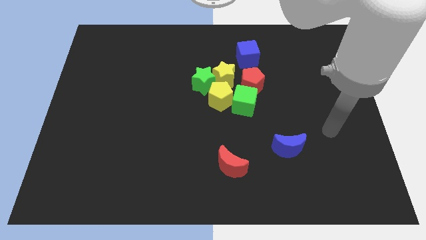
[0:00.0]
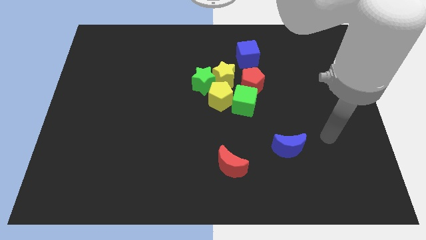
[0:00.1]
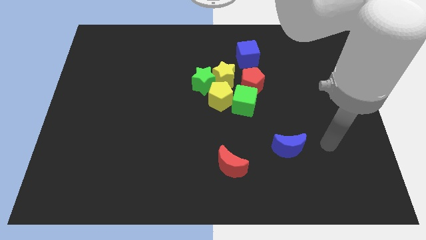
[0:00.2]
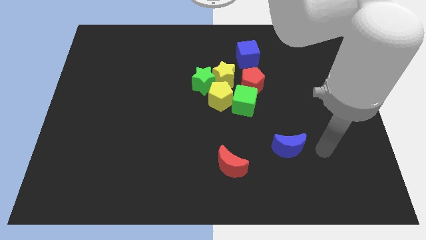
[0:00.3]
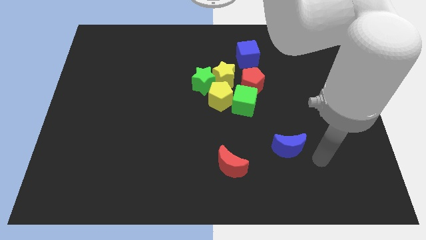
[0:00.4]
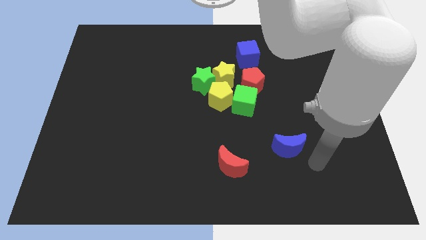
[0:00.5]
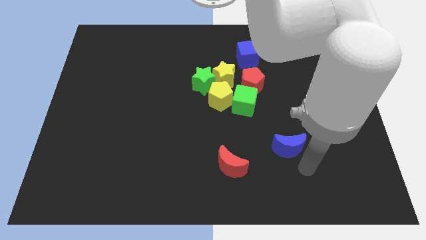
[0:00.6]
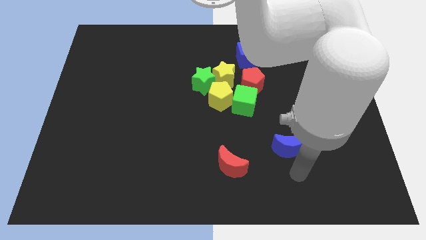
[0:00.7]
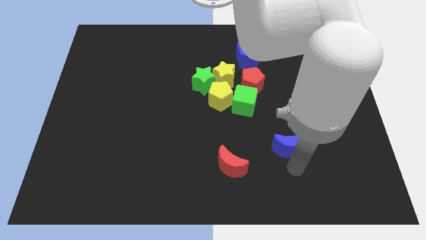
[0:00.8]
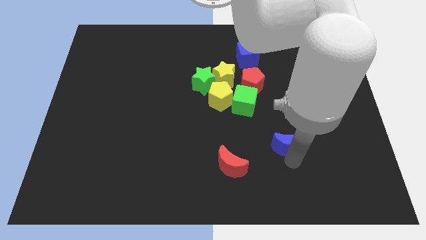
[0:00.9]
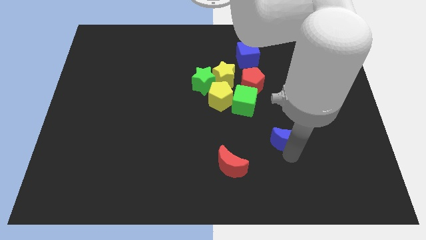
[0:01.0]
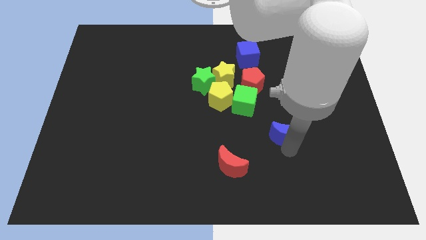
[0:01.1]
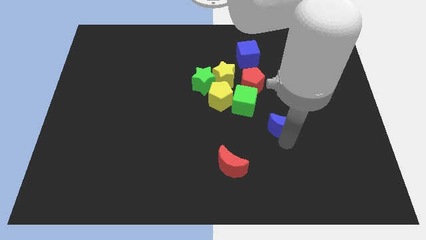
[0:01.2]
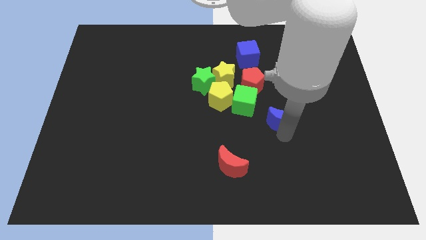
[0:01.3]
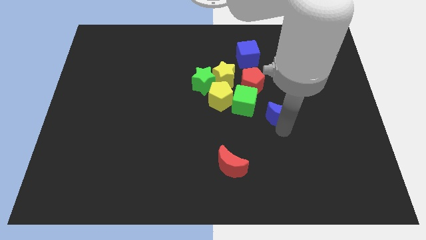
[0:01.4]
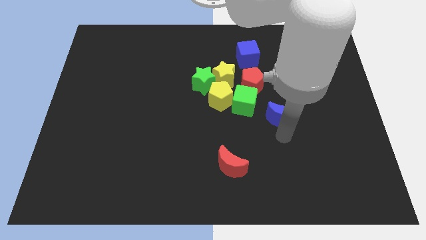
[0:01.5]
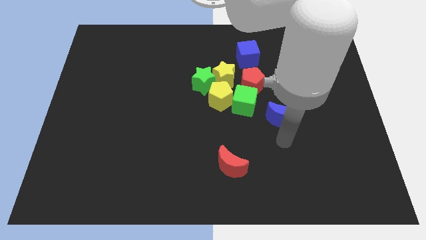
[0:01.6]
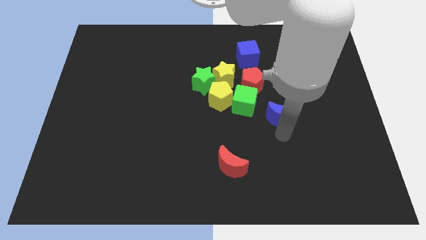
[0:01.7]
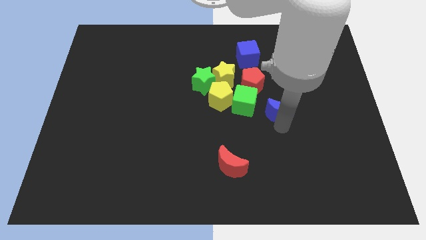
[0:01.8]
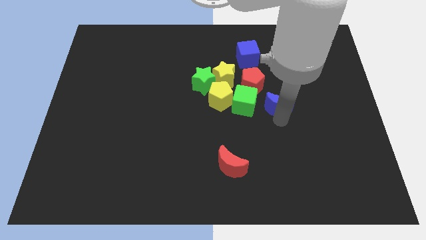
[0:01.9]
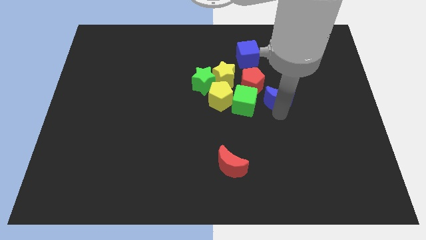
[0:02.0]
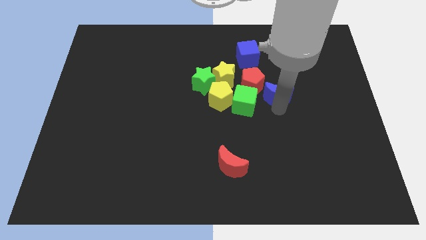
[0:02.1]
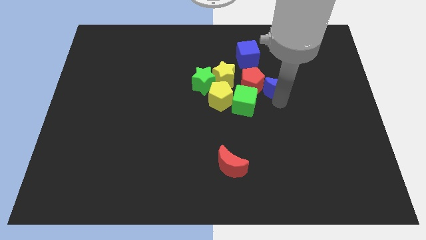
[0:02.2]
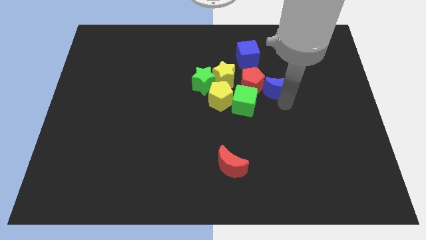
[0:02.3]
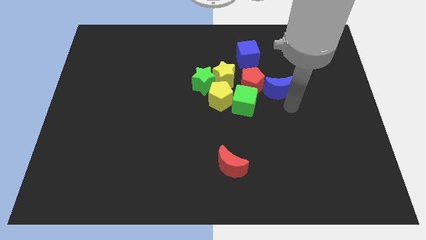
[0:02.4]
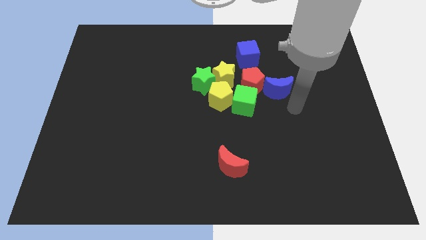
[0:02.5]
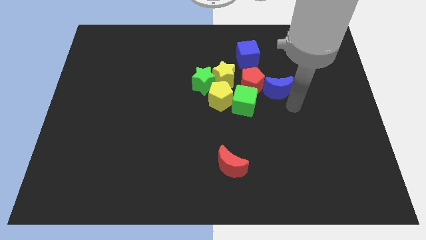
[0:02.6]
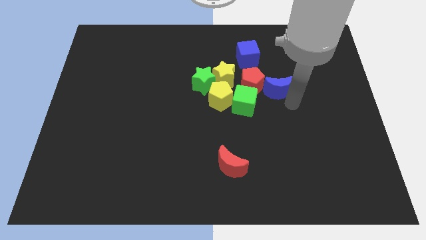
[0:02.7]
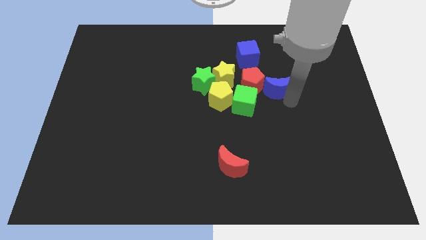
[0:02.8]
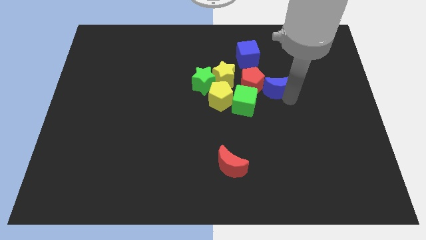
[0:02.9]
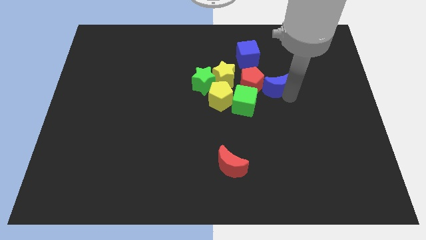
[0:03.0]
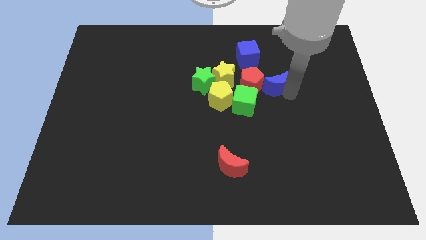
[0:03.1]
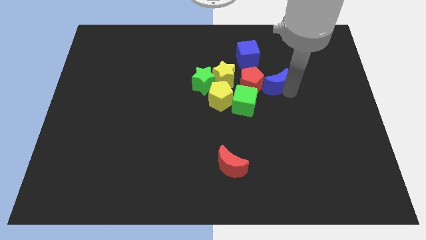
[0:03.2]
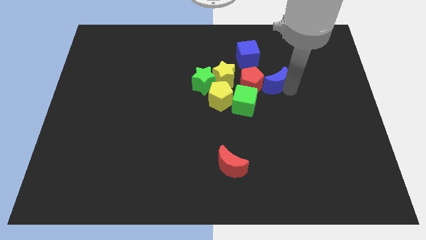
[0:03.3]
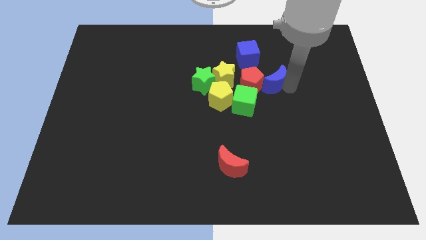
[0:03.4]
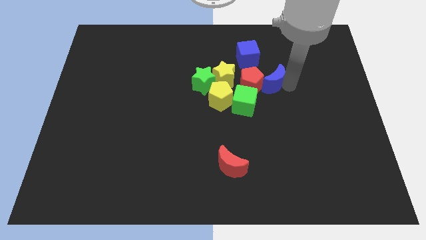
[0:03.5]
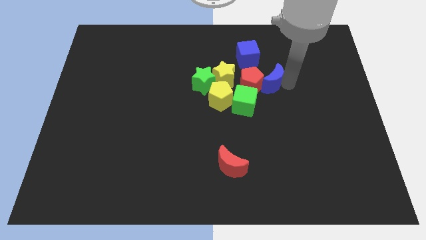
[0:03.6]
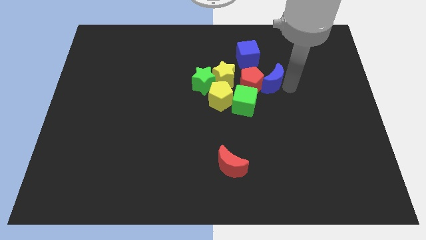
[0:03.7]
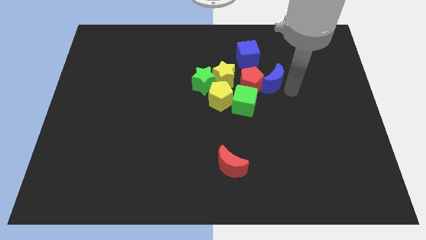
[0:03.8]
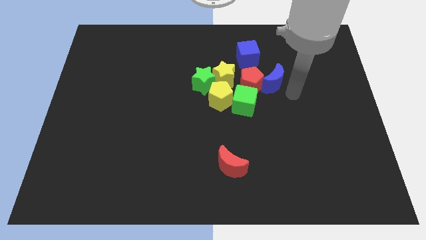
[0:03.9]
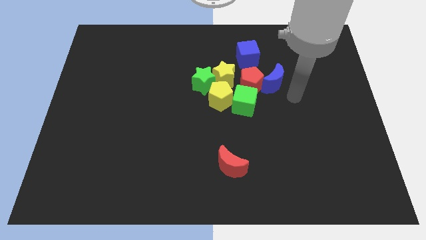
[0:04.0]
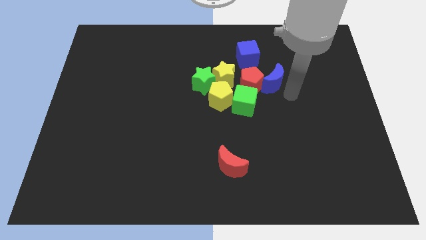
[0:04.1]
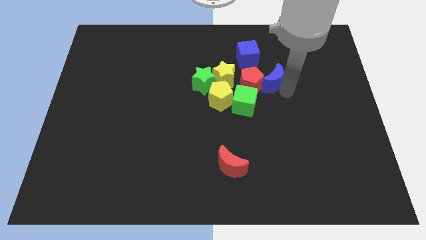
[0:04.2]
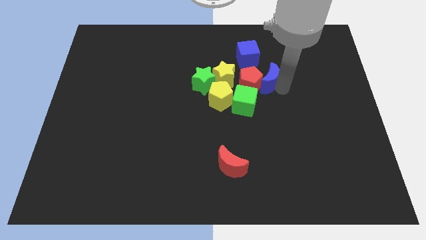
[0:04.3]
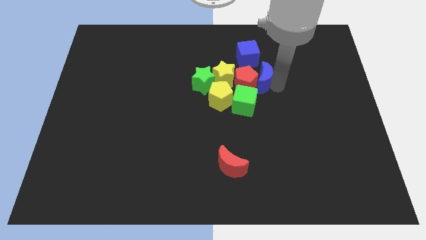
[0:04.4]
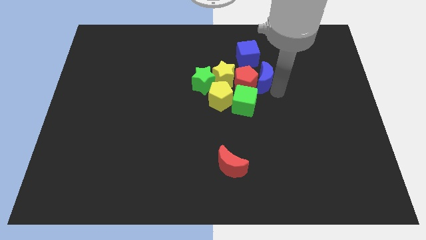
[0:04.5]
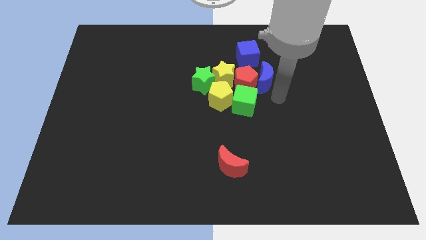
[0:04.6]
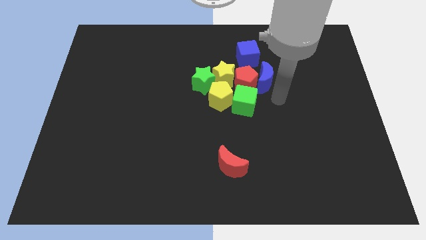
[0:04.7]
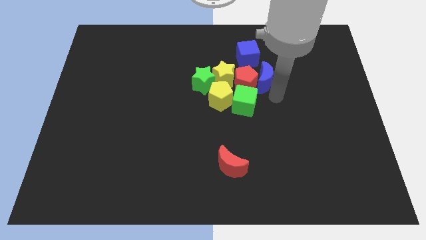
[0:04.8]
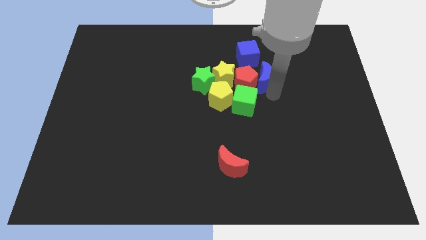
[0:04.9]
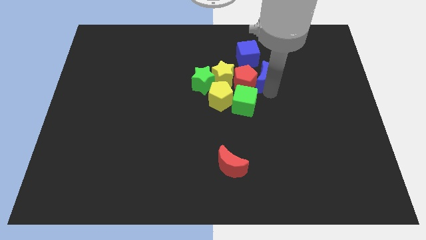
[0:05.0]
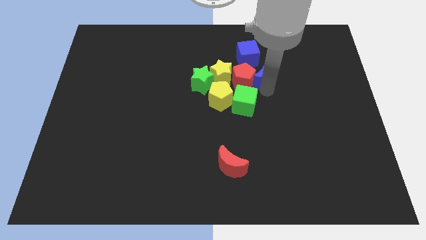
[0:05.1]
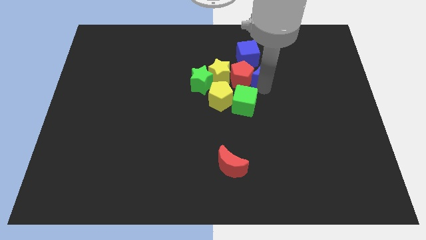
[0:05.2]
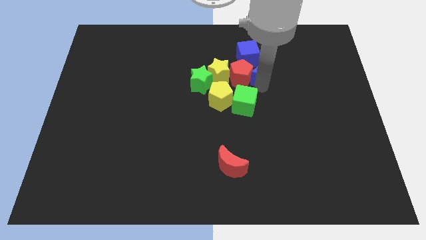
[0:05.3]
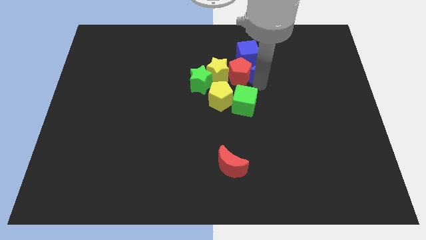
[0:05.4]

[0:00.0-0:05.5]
push the blue moon towards the blue cube
